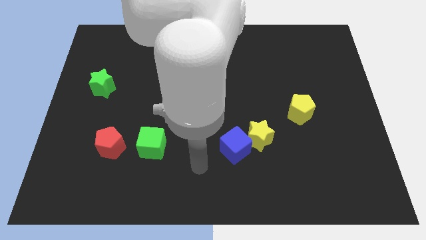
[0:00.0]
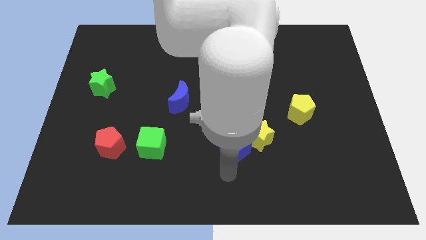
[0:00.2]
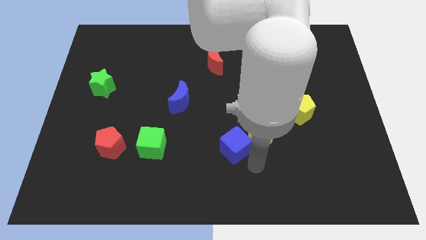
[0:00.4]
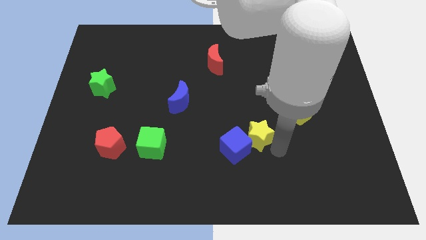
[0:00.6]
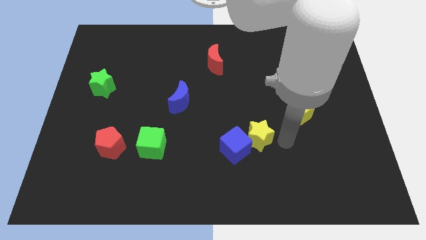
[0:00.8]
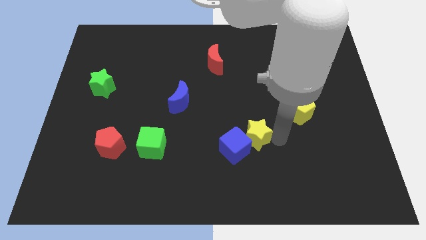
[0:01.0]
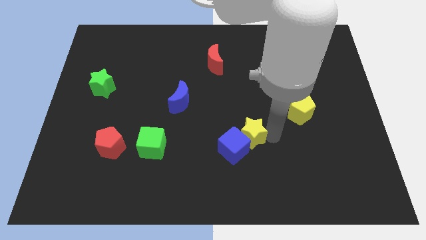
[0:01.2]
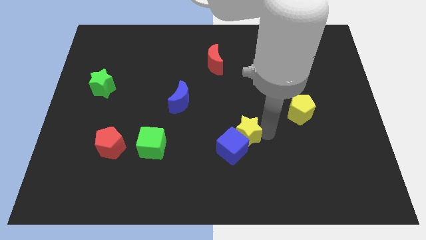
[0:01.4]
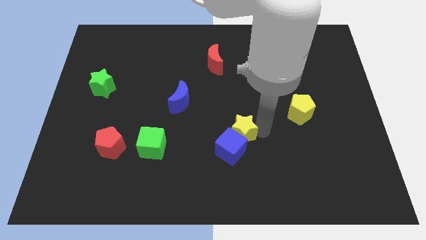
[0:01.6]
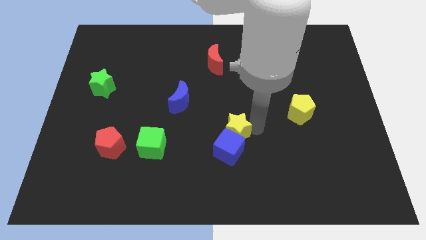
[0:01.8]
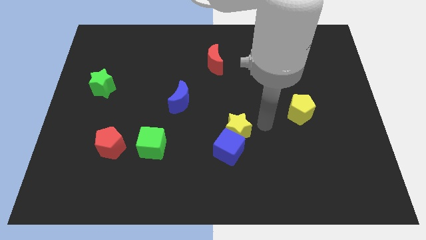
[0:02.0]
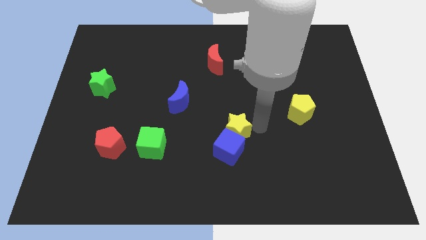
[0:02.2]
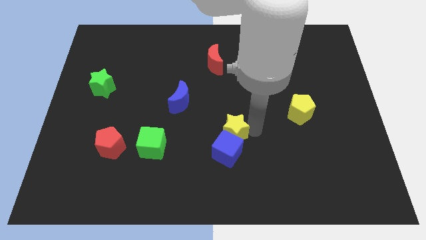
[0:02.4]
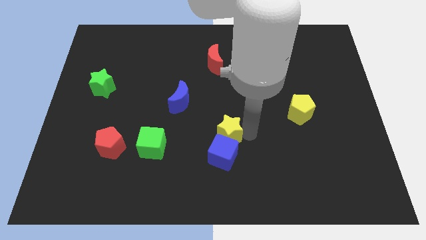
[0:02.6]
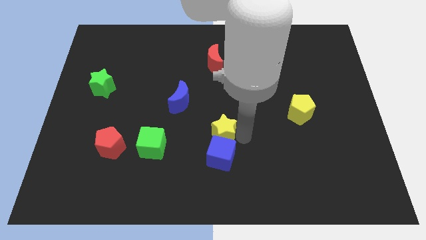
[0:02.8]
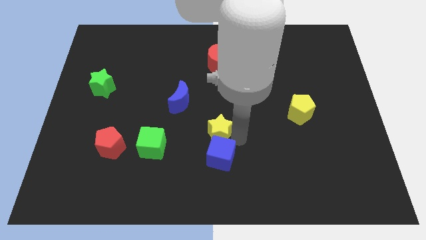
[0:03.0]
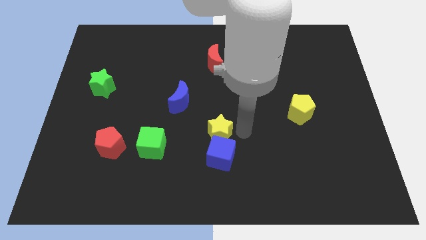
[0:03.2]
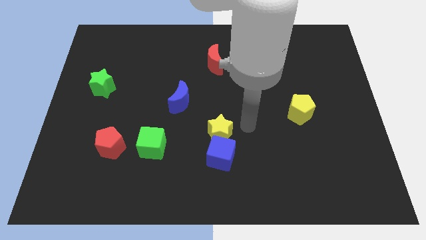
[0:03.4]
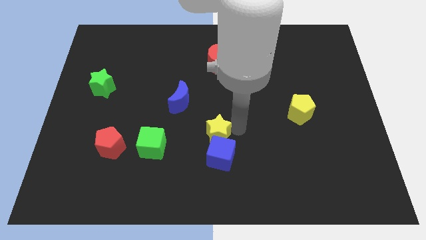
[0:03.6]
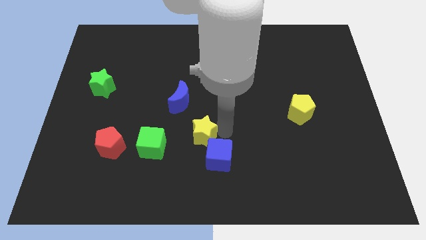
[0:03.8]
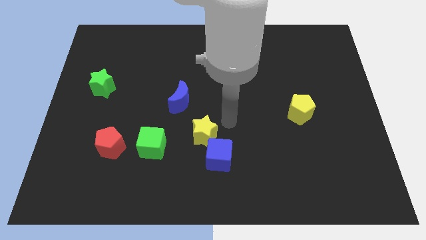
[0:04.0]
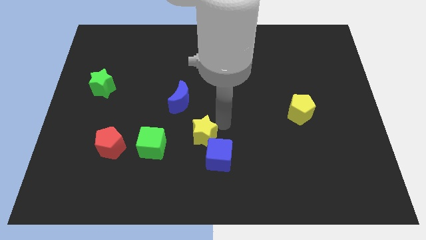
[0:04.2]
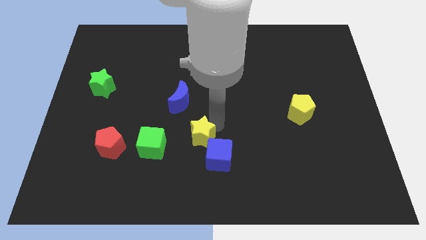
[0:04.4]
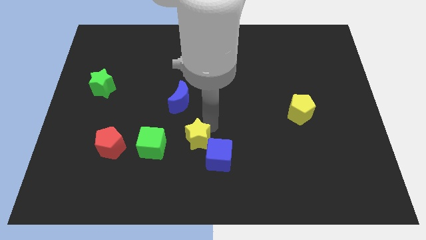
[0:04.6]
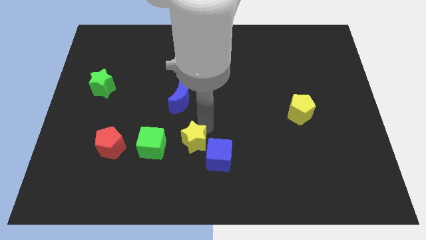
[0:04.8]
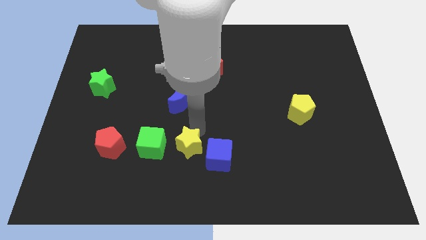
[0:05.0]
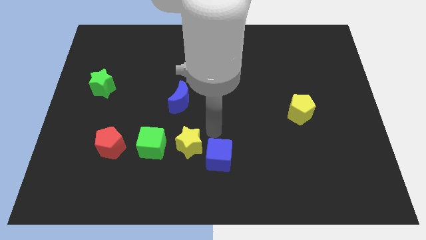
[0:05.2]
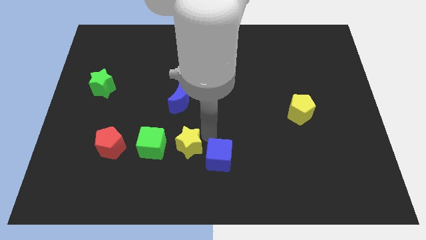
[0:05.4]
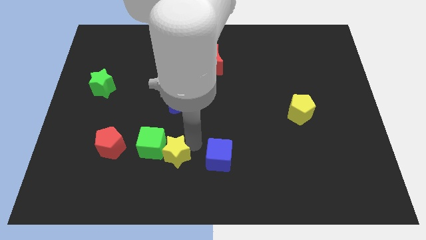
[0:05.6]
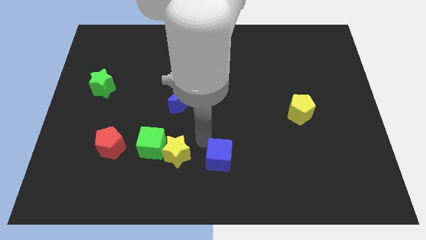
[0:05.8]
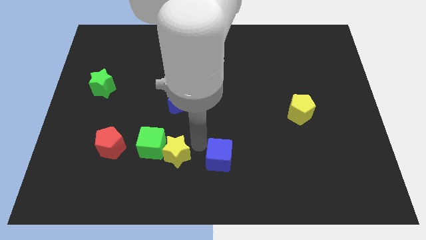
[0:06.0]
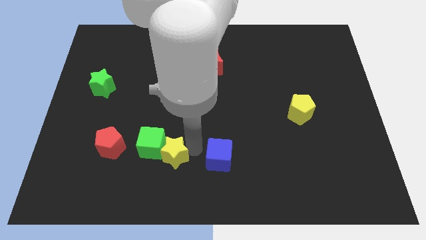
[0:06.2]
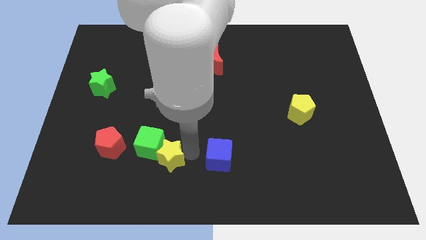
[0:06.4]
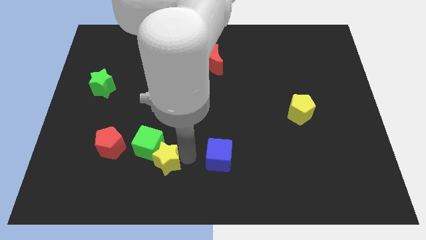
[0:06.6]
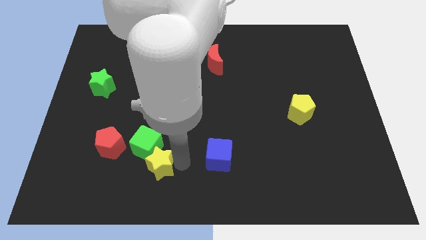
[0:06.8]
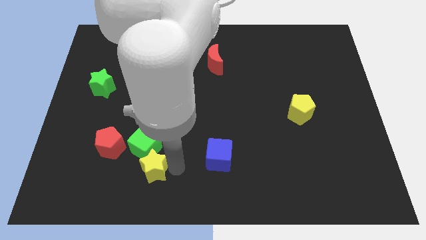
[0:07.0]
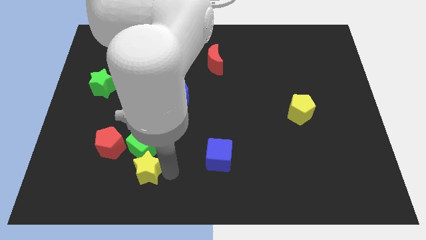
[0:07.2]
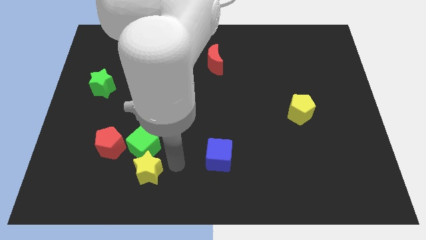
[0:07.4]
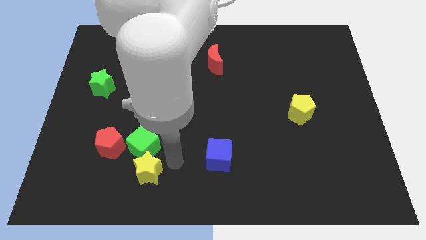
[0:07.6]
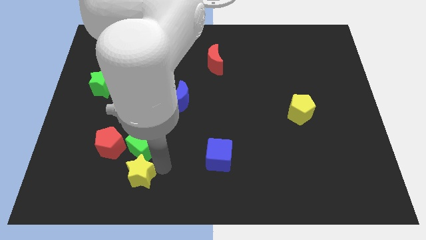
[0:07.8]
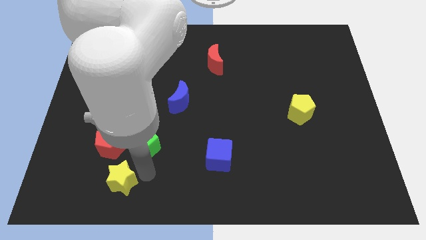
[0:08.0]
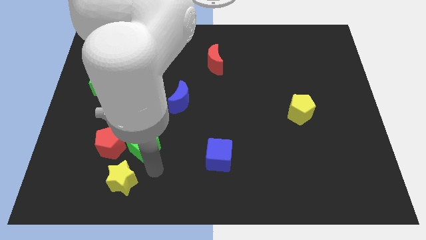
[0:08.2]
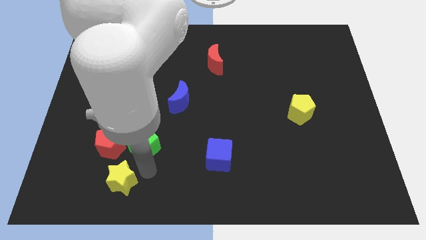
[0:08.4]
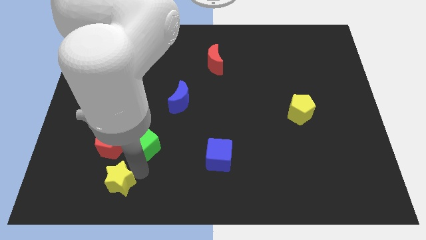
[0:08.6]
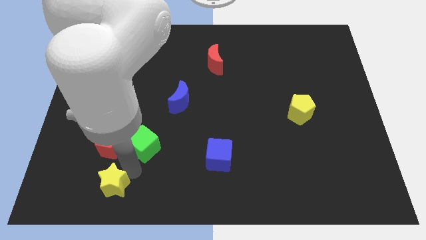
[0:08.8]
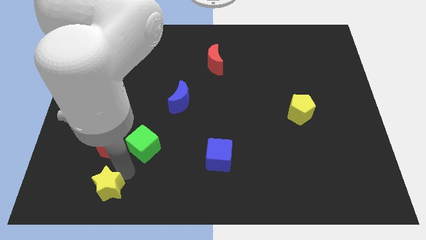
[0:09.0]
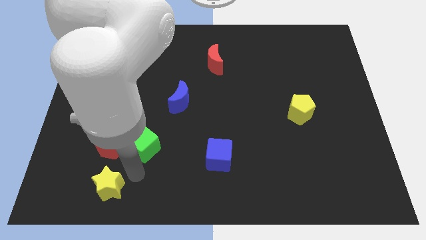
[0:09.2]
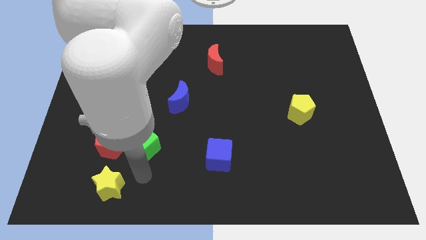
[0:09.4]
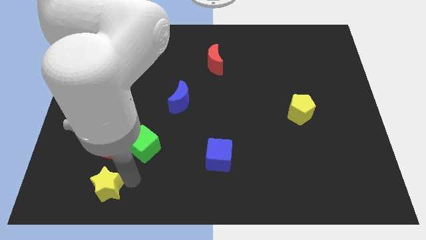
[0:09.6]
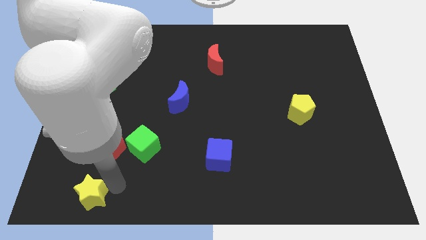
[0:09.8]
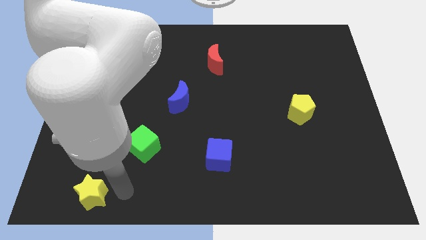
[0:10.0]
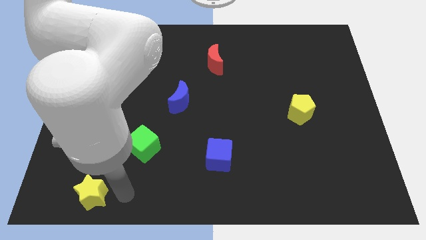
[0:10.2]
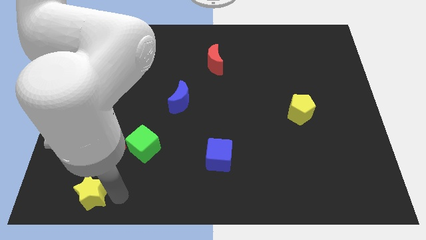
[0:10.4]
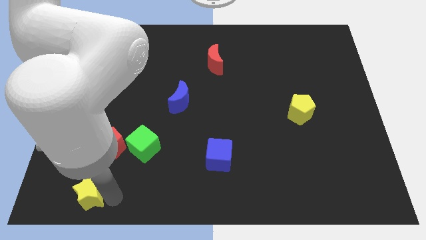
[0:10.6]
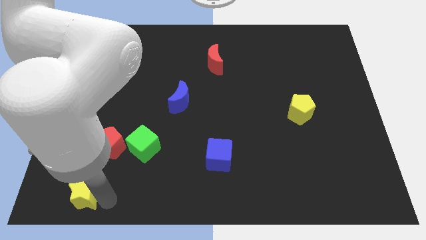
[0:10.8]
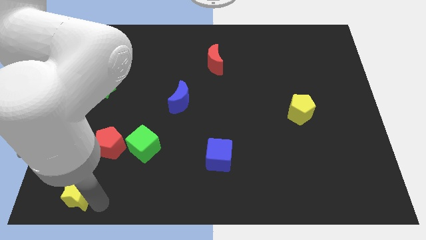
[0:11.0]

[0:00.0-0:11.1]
push the yellow star to the bottom left

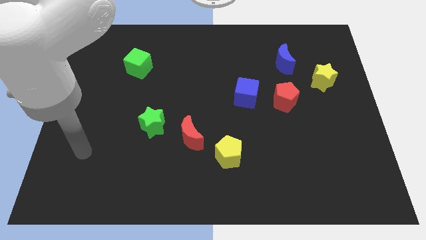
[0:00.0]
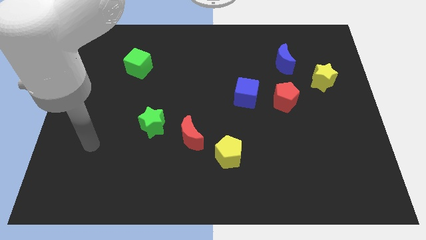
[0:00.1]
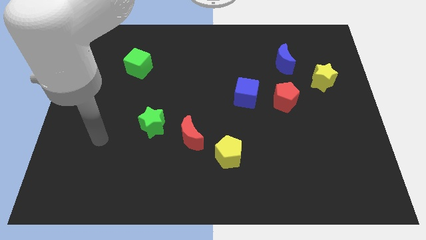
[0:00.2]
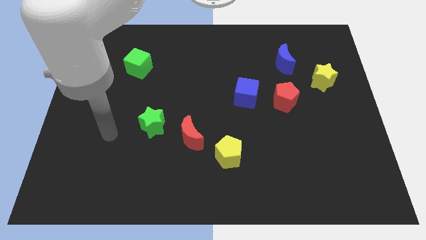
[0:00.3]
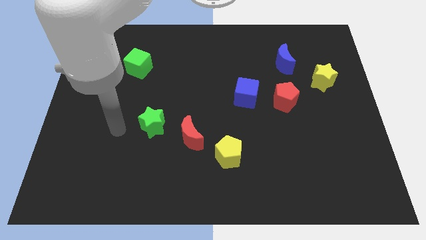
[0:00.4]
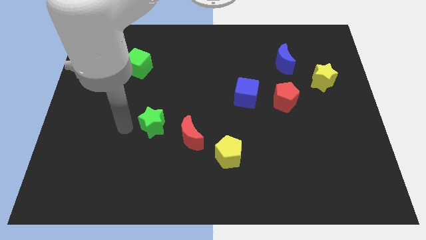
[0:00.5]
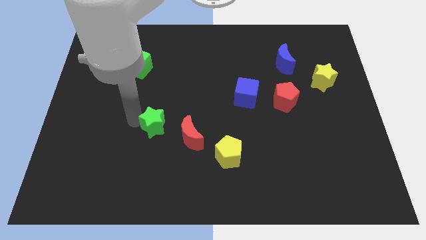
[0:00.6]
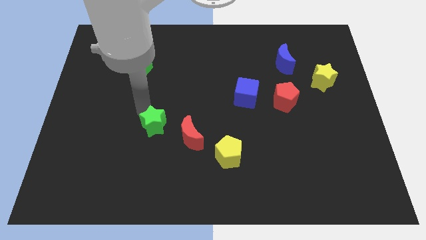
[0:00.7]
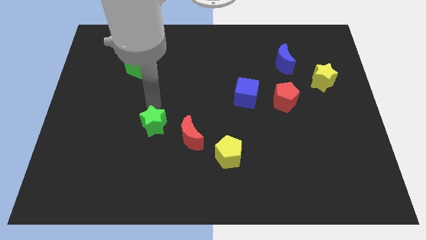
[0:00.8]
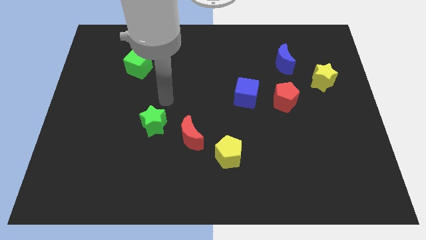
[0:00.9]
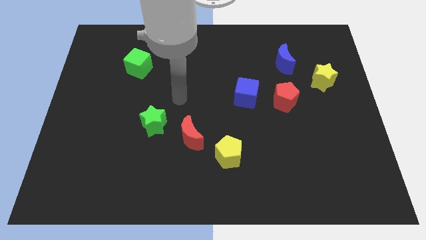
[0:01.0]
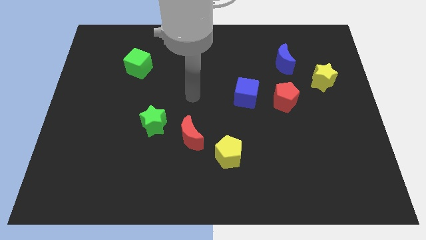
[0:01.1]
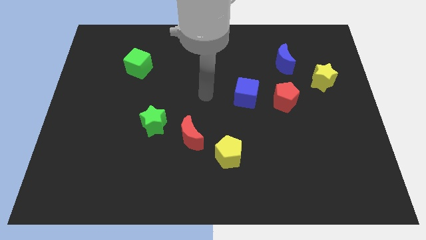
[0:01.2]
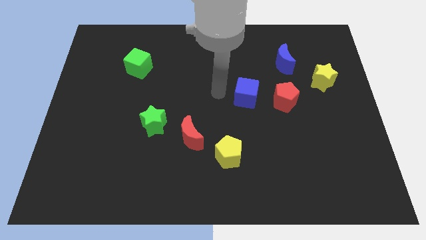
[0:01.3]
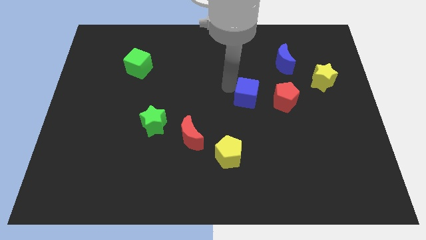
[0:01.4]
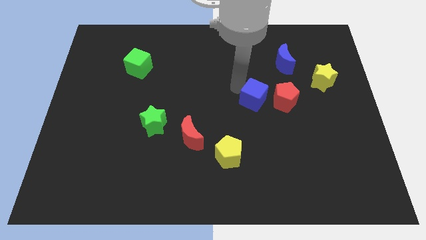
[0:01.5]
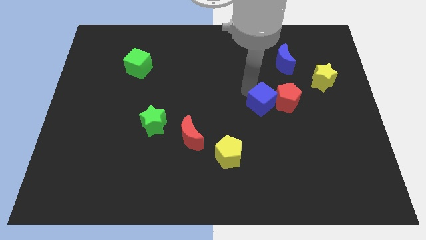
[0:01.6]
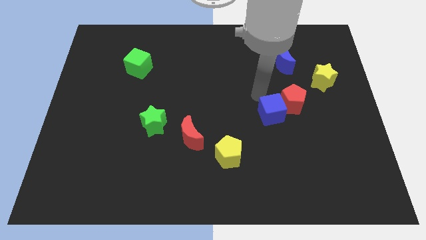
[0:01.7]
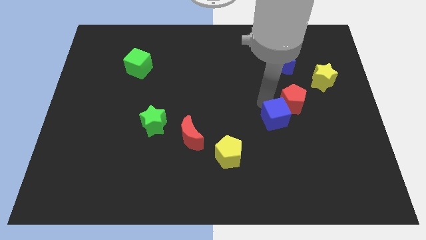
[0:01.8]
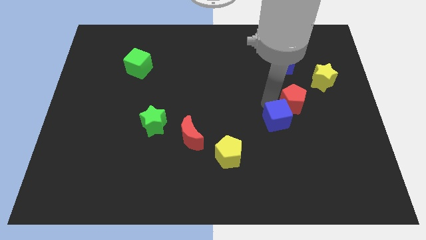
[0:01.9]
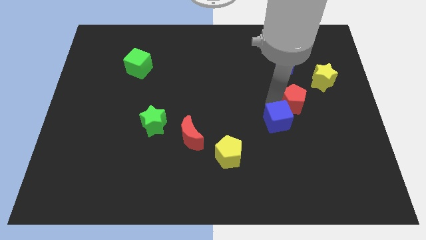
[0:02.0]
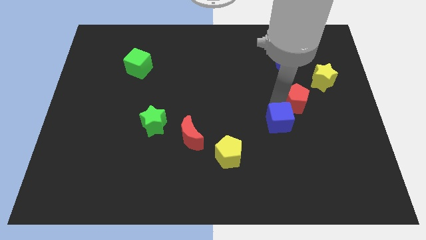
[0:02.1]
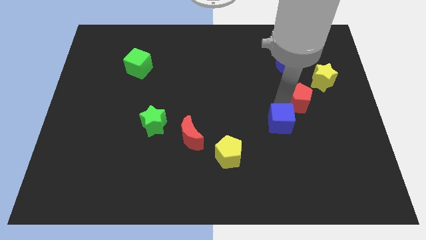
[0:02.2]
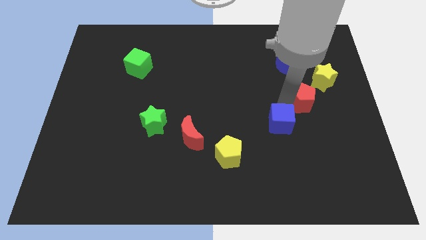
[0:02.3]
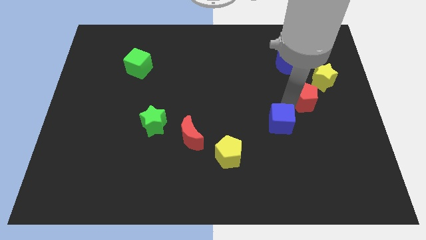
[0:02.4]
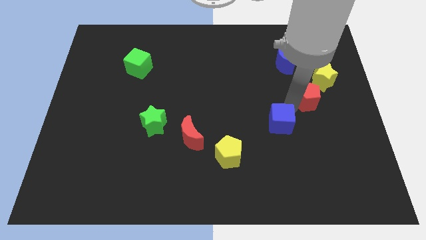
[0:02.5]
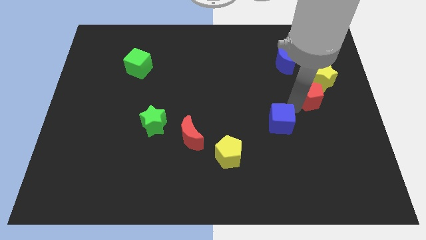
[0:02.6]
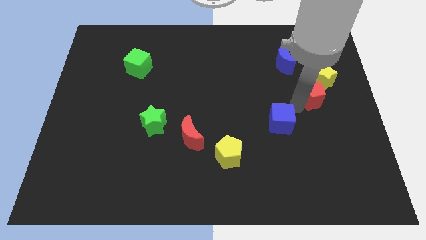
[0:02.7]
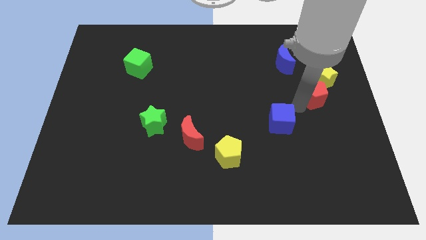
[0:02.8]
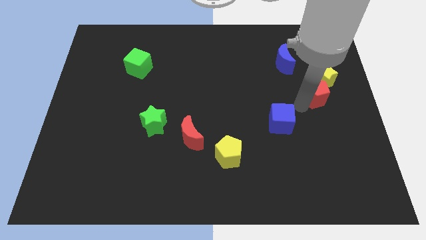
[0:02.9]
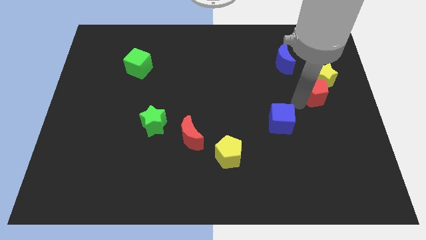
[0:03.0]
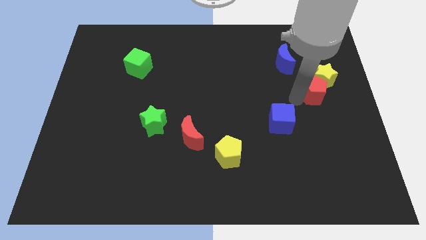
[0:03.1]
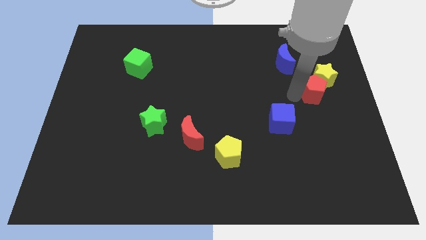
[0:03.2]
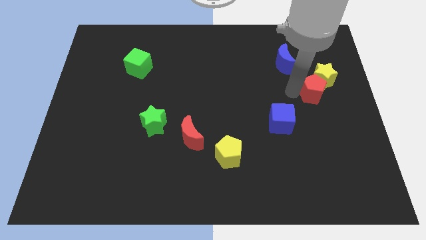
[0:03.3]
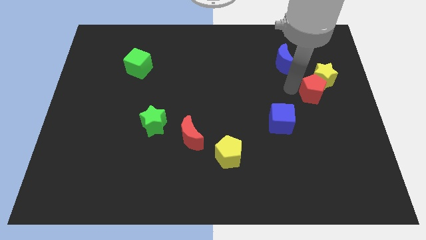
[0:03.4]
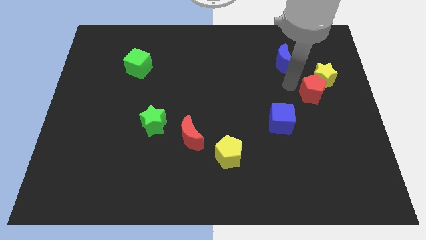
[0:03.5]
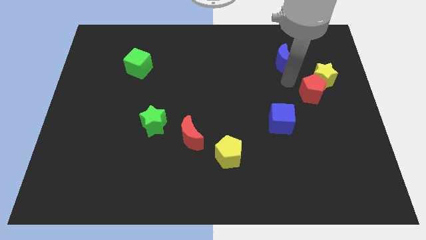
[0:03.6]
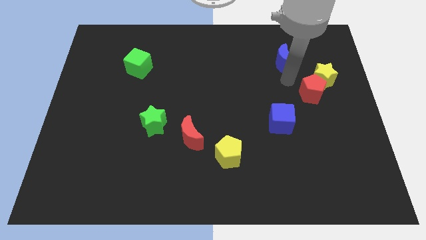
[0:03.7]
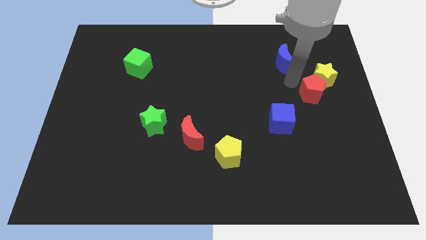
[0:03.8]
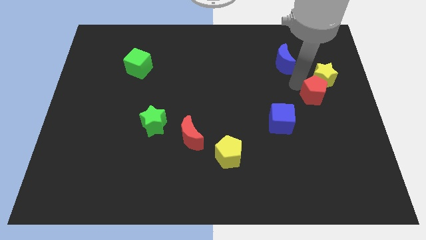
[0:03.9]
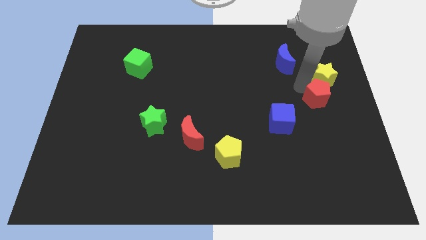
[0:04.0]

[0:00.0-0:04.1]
push the red pentagon to the right side
